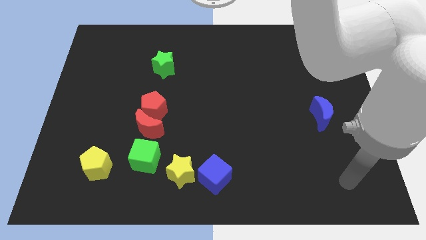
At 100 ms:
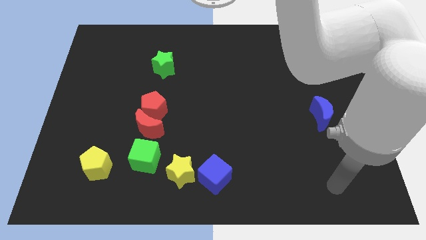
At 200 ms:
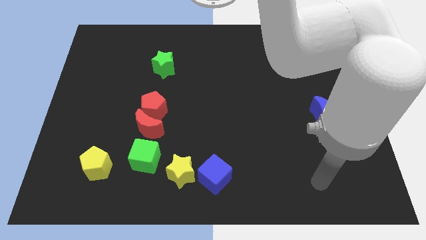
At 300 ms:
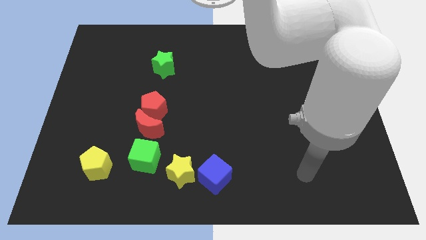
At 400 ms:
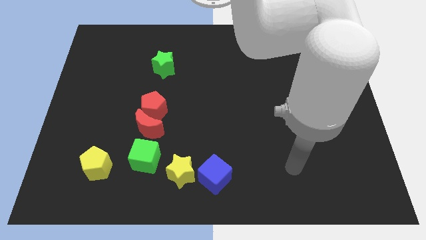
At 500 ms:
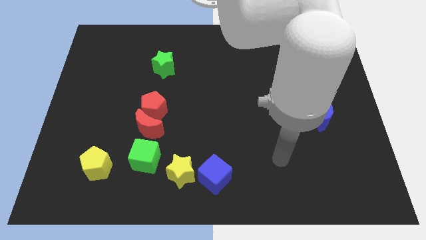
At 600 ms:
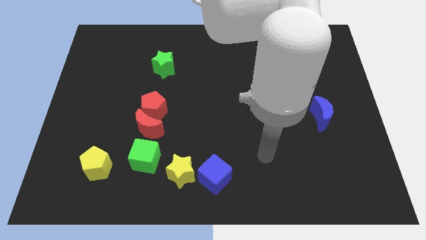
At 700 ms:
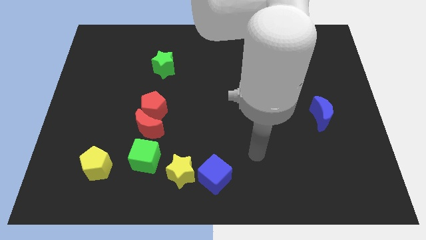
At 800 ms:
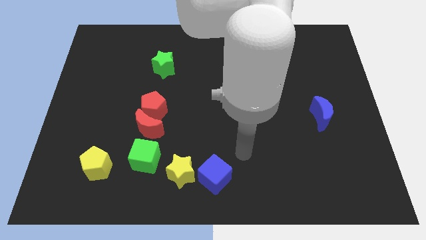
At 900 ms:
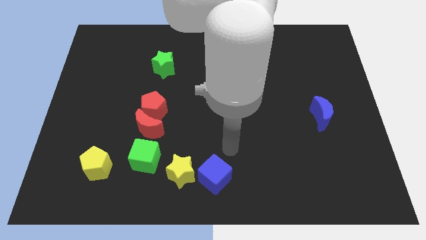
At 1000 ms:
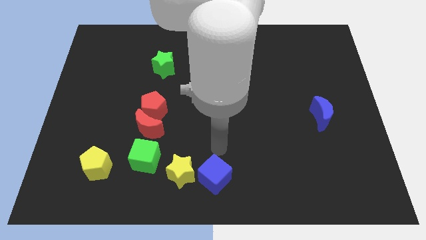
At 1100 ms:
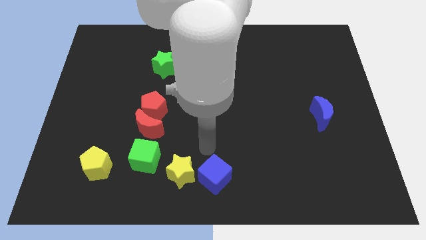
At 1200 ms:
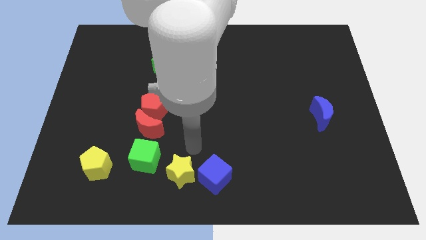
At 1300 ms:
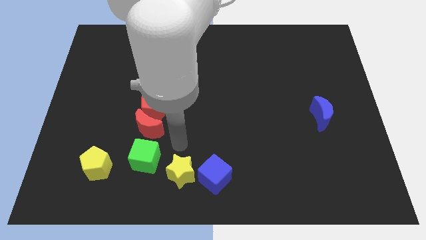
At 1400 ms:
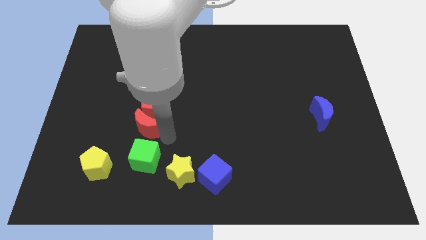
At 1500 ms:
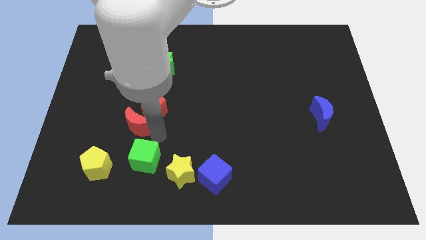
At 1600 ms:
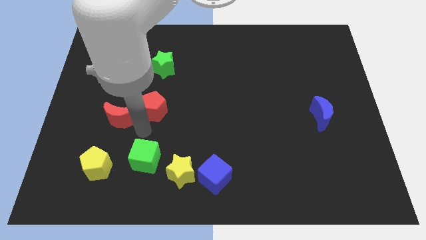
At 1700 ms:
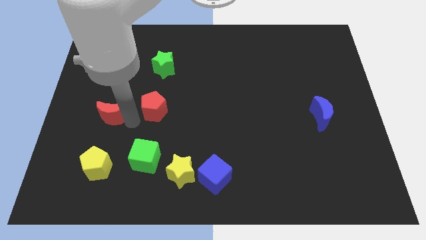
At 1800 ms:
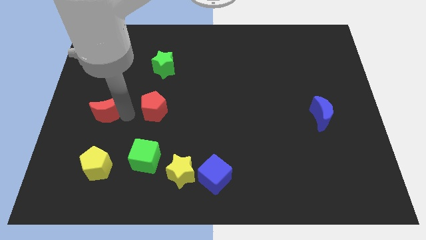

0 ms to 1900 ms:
separate the red pentagon from the red moon

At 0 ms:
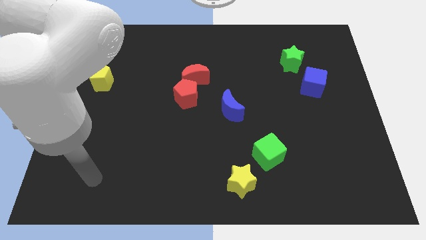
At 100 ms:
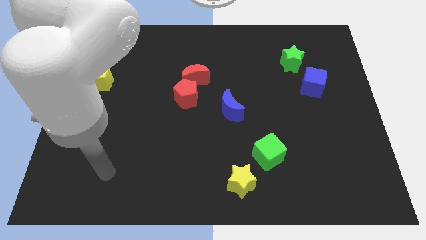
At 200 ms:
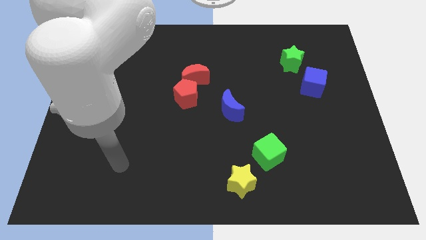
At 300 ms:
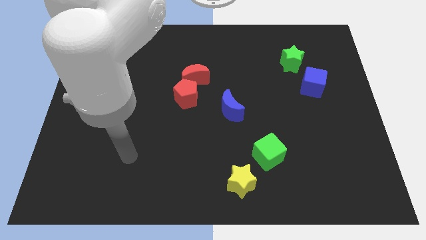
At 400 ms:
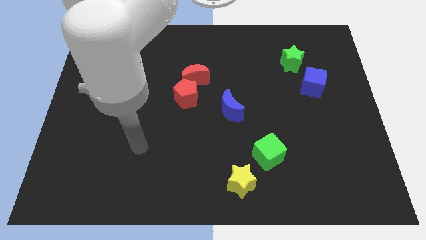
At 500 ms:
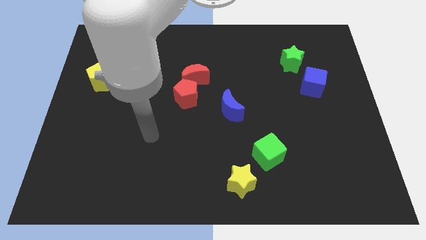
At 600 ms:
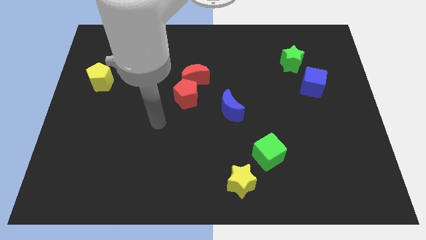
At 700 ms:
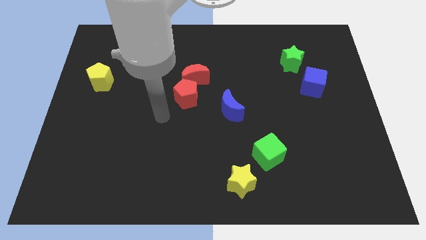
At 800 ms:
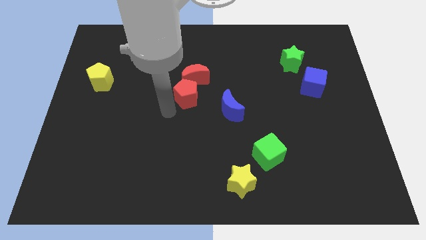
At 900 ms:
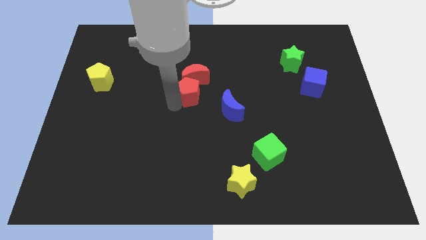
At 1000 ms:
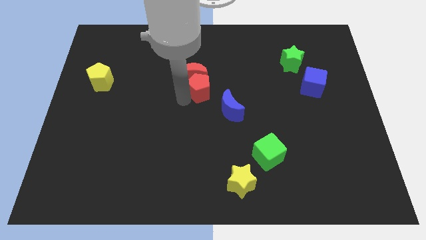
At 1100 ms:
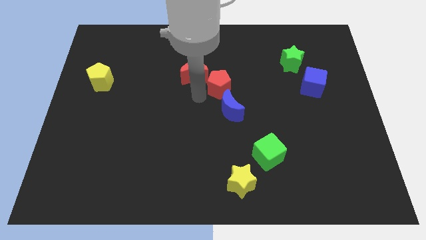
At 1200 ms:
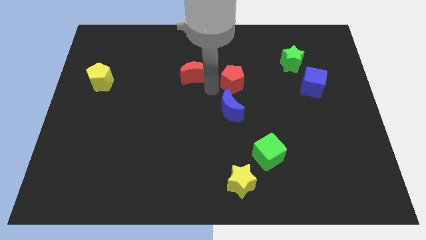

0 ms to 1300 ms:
move the red moon away from the red pentagon

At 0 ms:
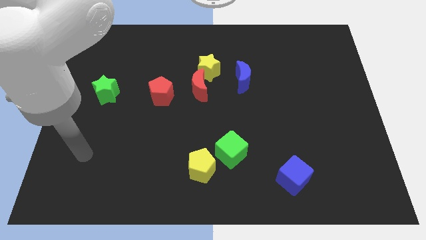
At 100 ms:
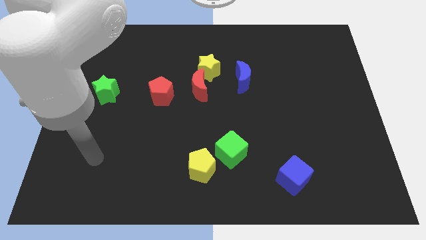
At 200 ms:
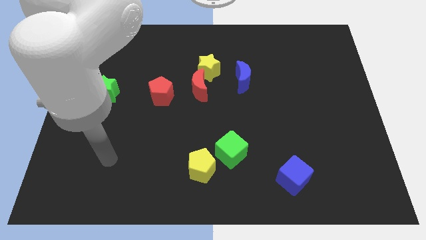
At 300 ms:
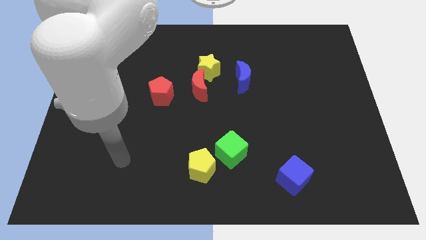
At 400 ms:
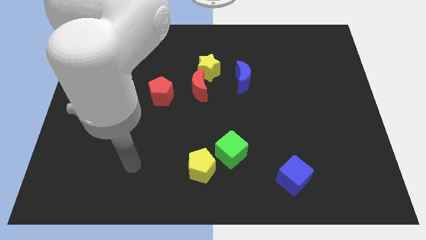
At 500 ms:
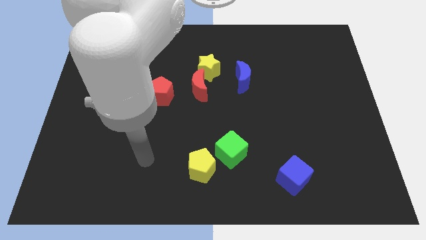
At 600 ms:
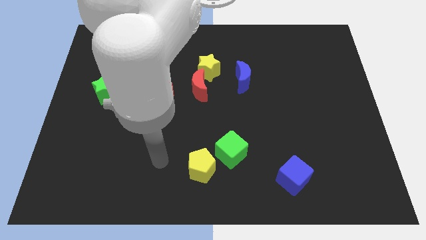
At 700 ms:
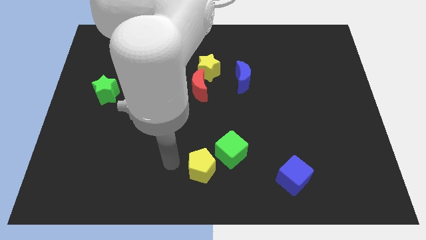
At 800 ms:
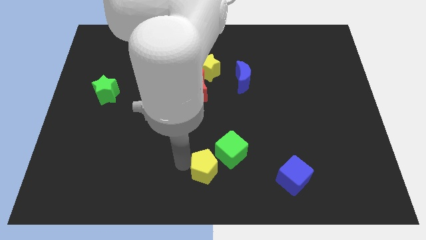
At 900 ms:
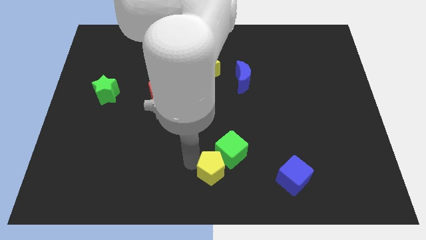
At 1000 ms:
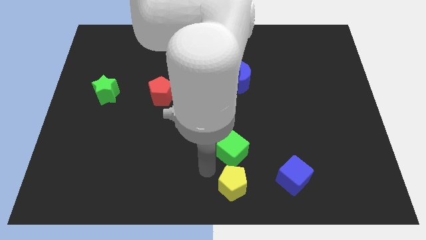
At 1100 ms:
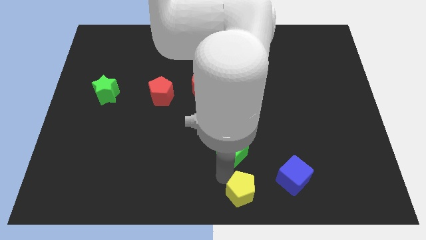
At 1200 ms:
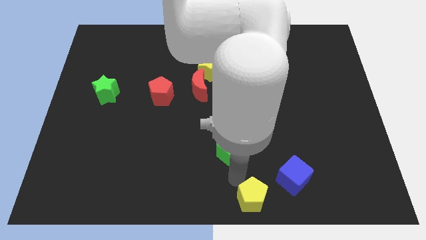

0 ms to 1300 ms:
separate the green cube from the yellow pentagon

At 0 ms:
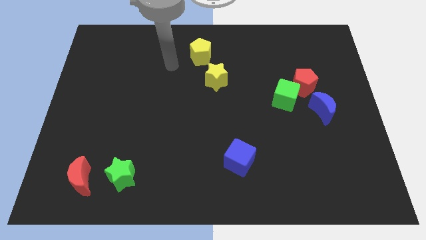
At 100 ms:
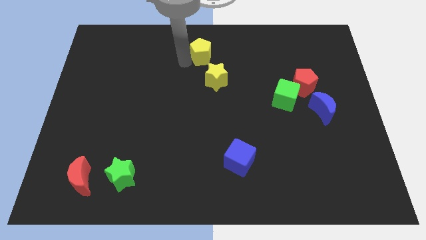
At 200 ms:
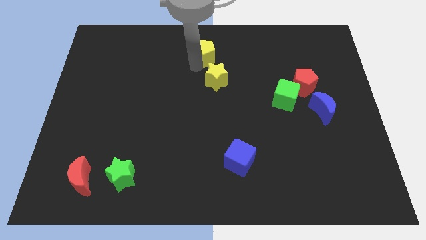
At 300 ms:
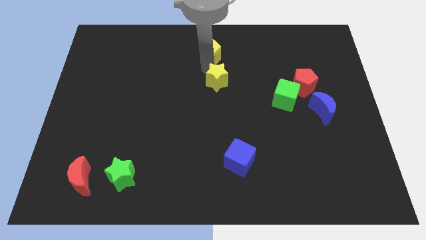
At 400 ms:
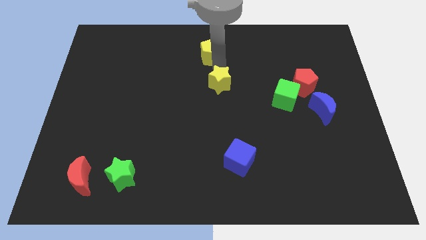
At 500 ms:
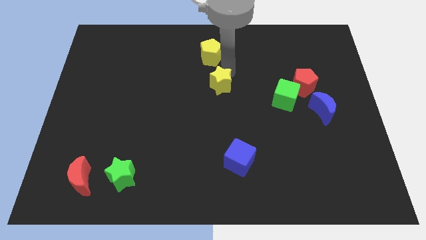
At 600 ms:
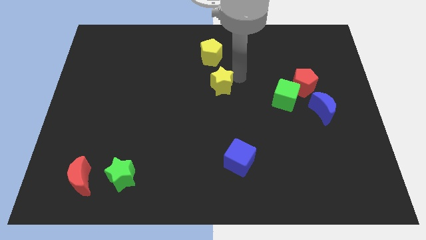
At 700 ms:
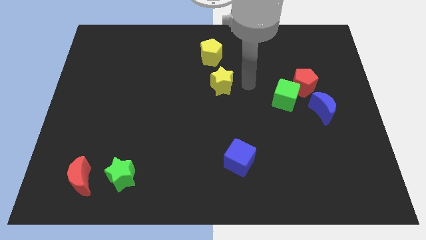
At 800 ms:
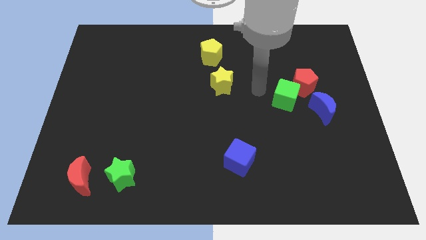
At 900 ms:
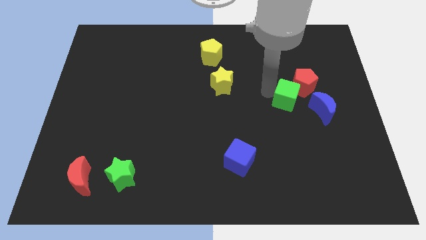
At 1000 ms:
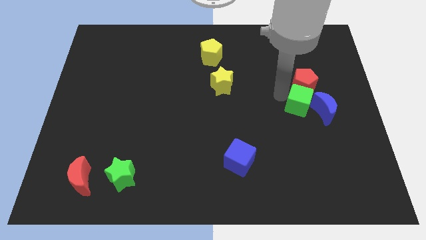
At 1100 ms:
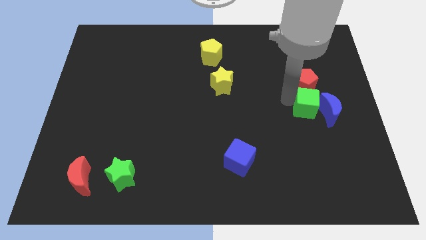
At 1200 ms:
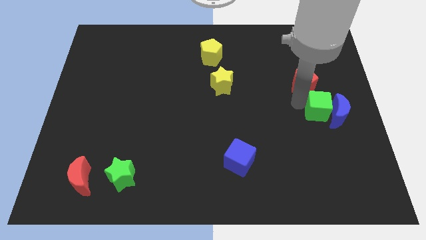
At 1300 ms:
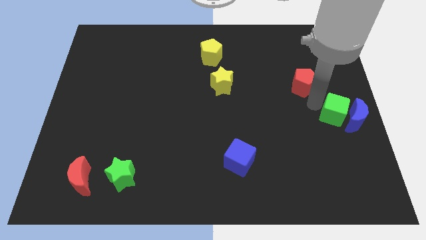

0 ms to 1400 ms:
separate the red pentagon from the green cube and blue moon

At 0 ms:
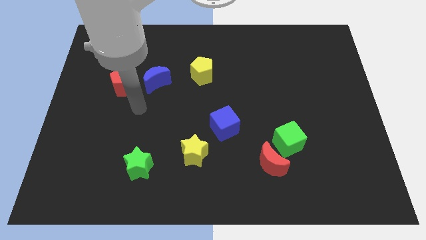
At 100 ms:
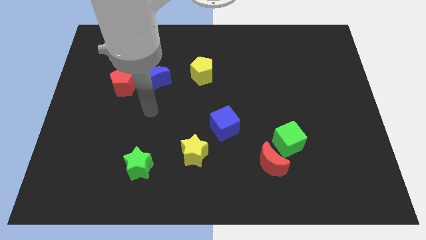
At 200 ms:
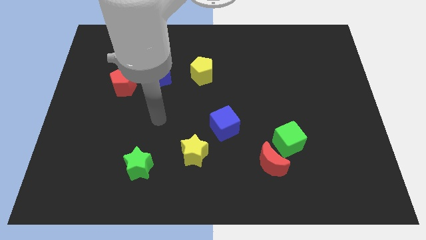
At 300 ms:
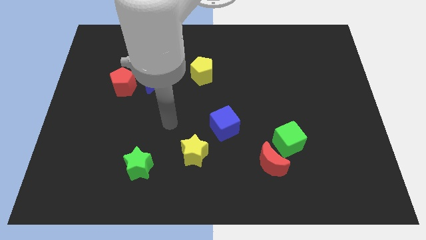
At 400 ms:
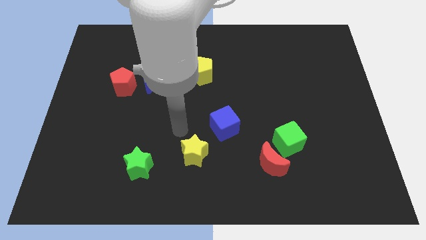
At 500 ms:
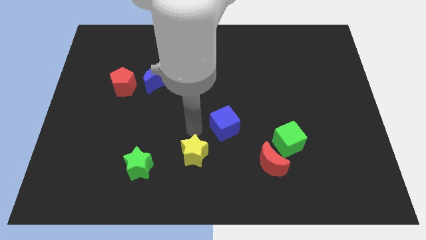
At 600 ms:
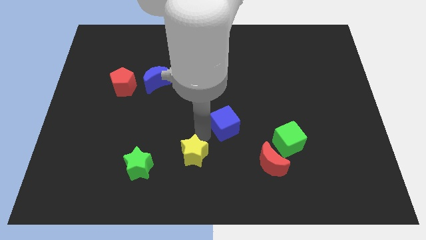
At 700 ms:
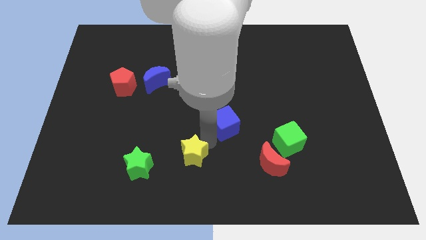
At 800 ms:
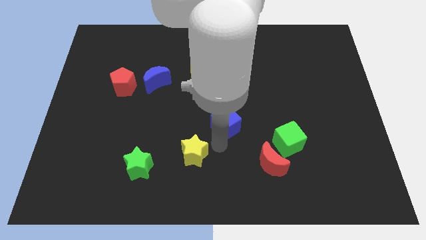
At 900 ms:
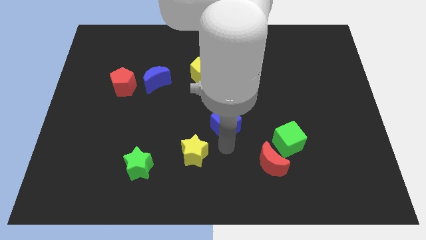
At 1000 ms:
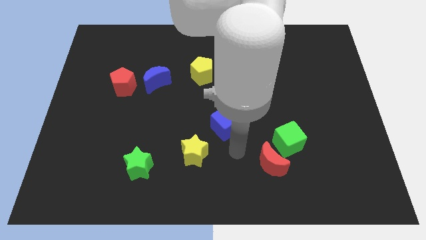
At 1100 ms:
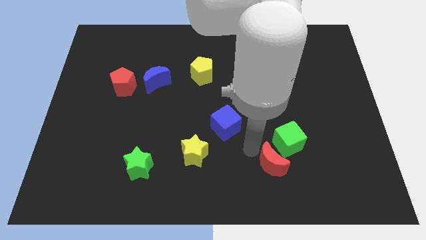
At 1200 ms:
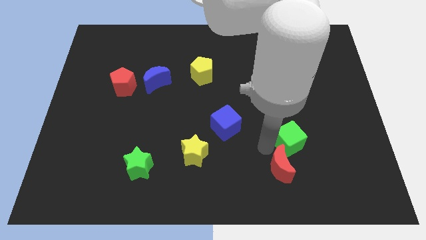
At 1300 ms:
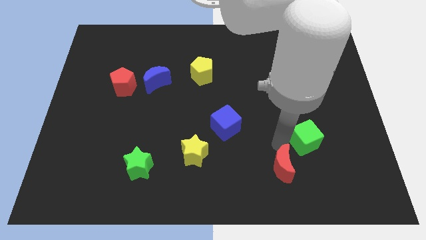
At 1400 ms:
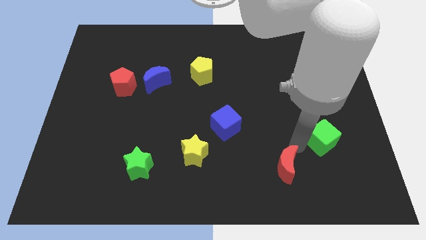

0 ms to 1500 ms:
move the red moon away from the green cube

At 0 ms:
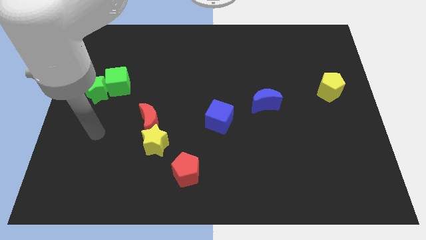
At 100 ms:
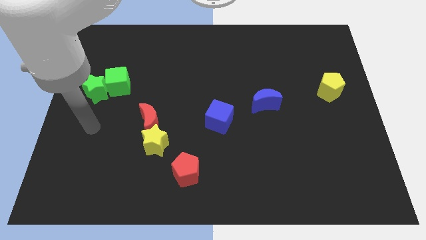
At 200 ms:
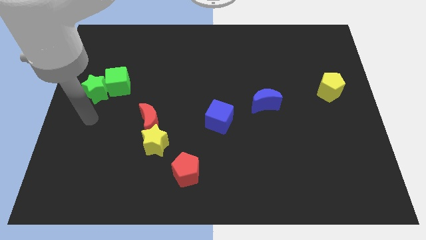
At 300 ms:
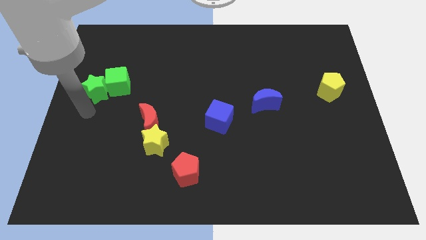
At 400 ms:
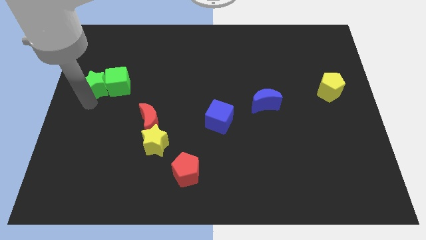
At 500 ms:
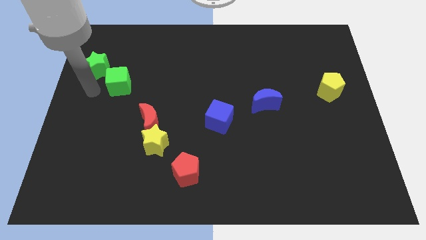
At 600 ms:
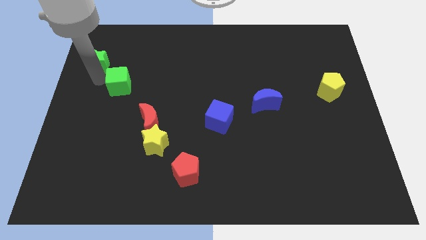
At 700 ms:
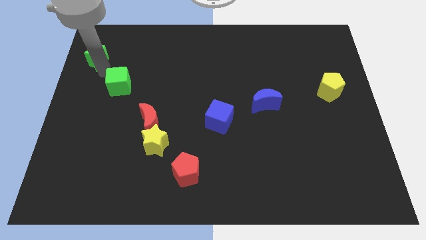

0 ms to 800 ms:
move the green cube away from the green star

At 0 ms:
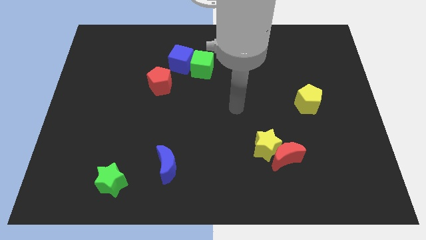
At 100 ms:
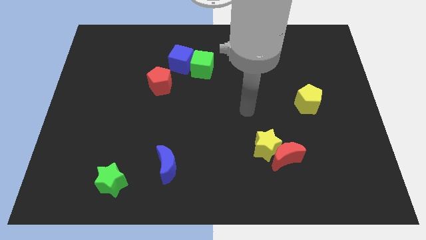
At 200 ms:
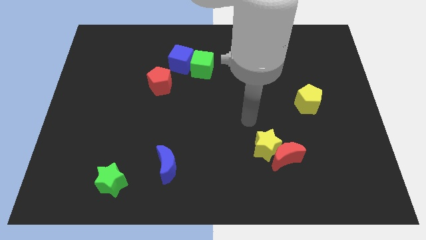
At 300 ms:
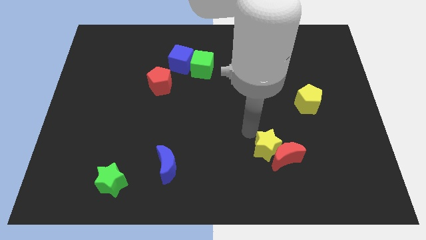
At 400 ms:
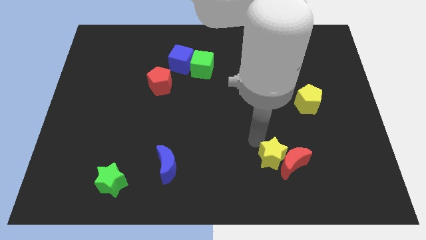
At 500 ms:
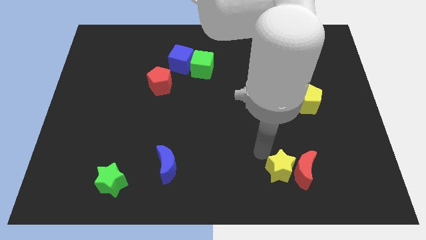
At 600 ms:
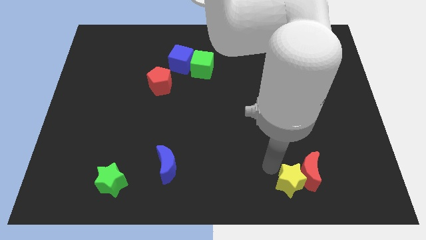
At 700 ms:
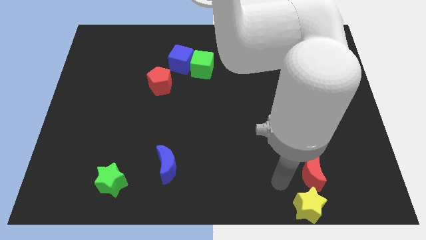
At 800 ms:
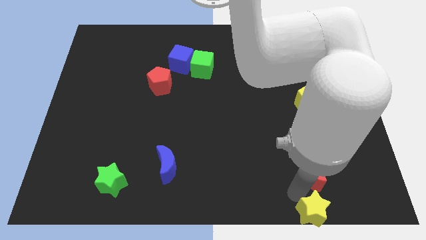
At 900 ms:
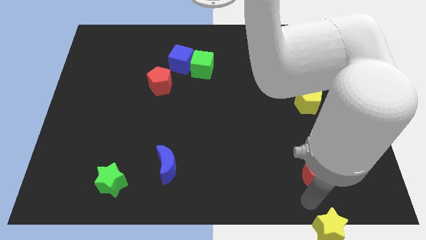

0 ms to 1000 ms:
pull the red moon apart from the yellow star

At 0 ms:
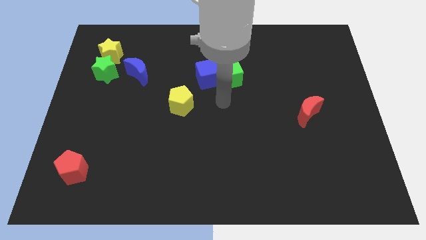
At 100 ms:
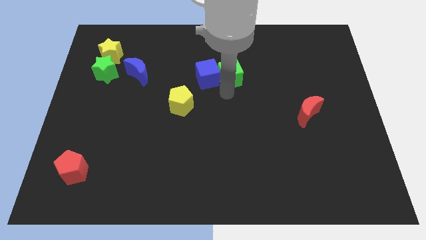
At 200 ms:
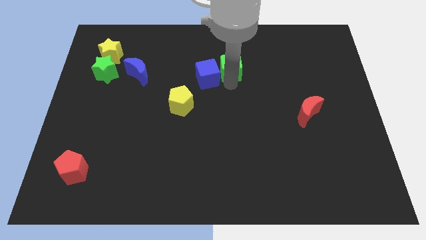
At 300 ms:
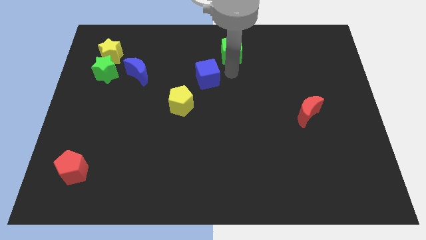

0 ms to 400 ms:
move the blue cube away from the green cube
